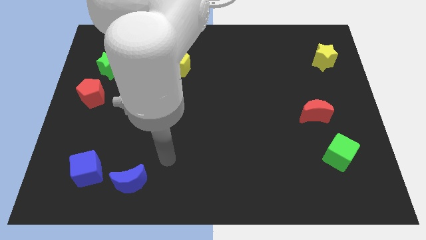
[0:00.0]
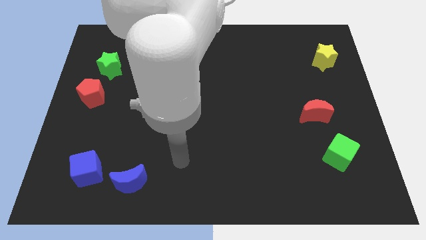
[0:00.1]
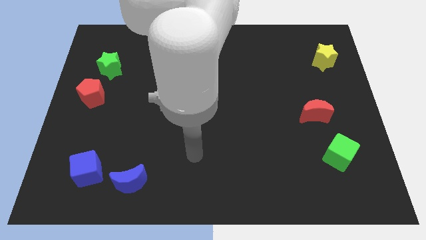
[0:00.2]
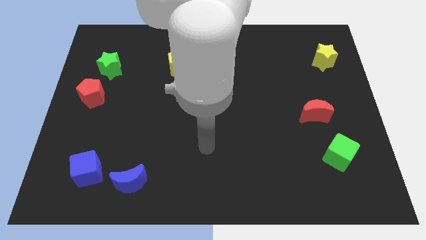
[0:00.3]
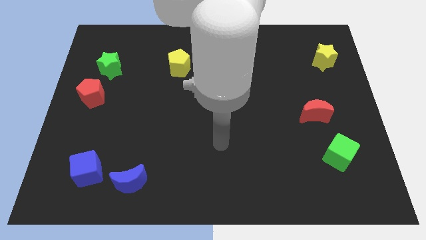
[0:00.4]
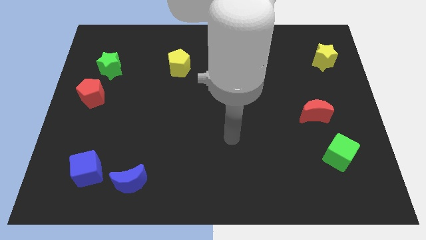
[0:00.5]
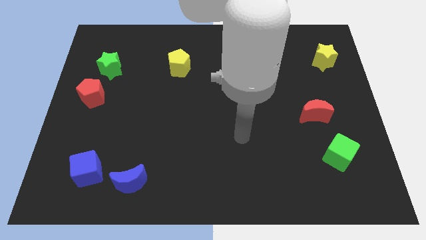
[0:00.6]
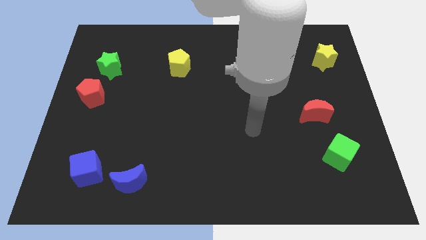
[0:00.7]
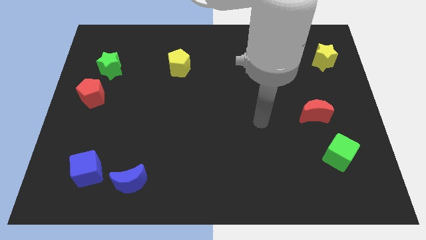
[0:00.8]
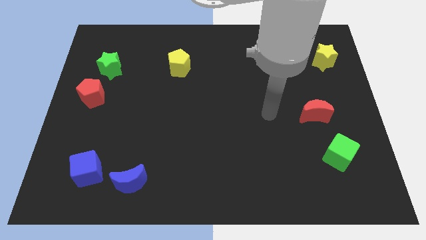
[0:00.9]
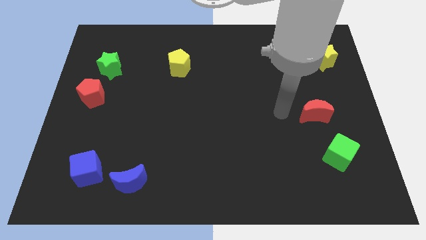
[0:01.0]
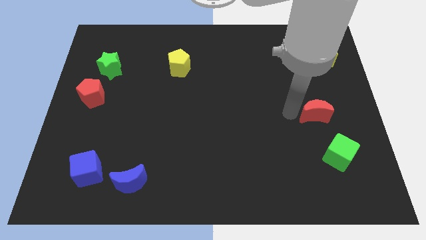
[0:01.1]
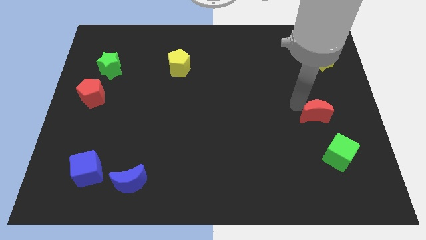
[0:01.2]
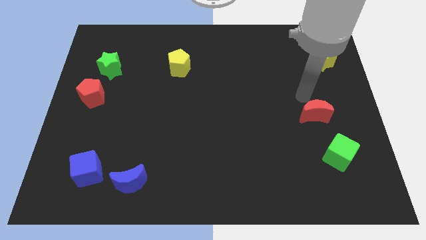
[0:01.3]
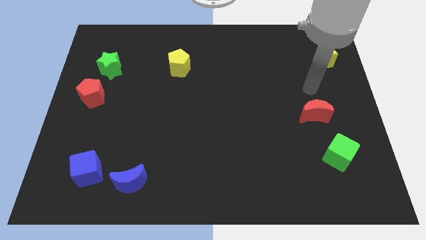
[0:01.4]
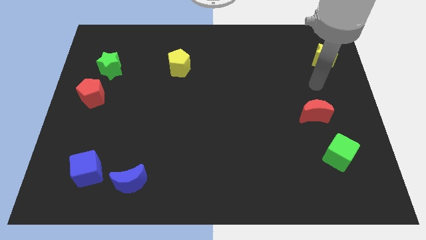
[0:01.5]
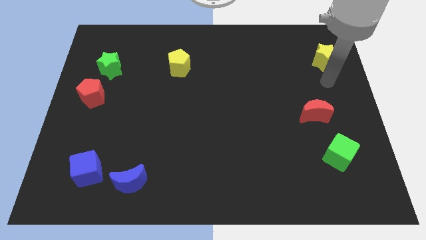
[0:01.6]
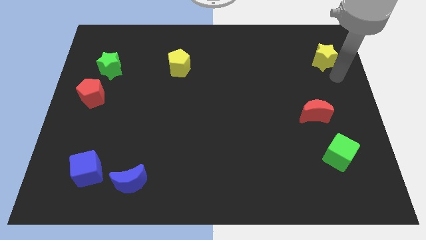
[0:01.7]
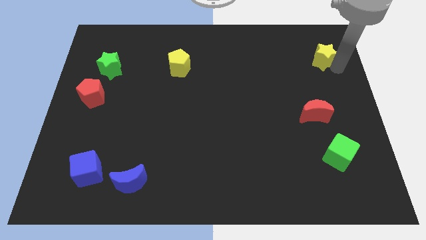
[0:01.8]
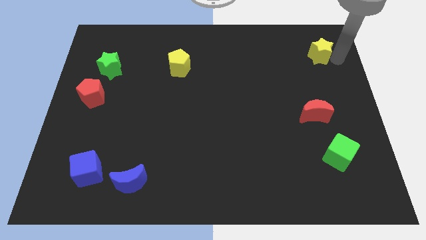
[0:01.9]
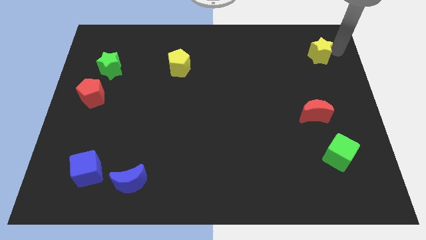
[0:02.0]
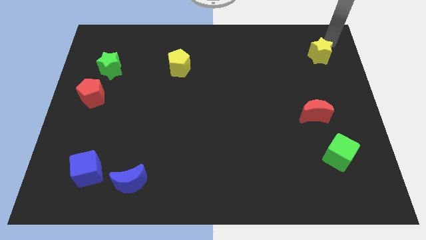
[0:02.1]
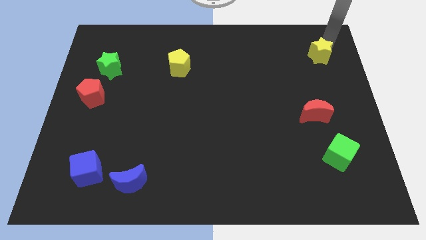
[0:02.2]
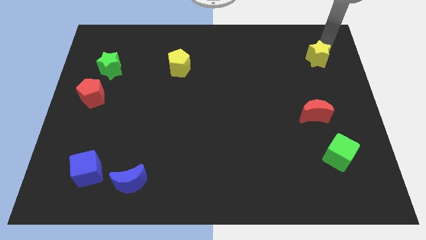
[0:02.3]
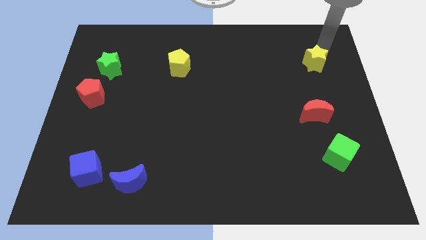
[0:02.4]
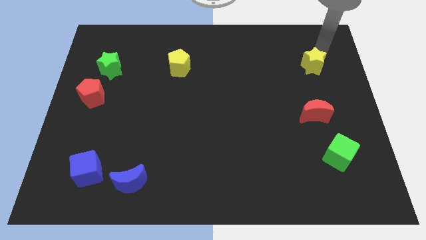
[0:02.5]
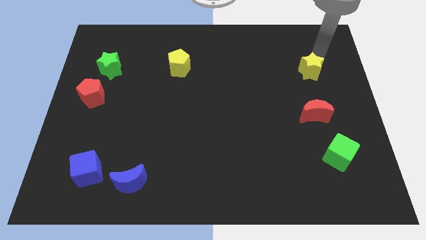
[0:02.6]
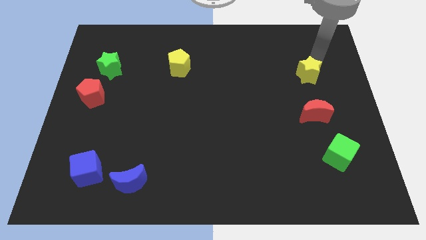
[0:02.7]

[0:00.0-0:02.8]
move the yellow star downwards and then left a little bit

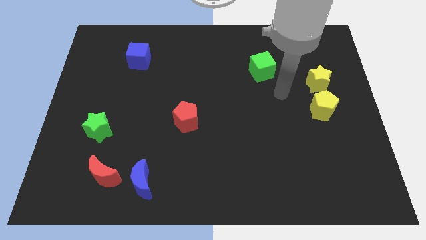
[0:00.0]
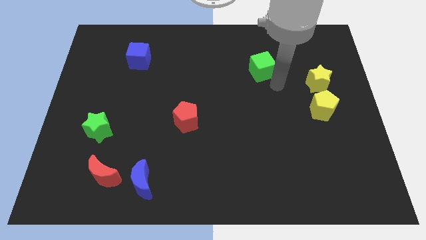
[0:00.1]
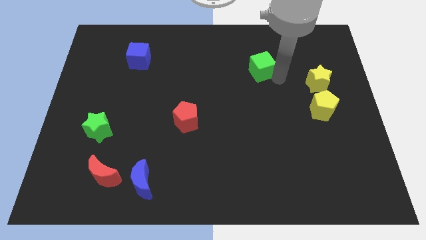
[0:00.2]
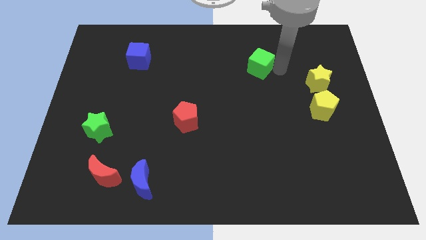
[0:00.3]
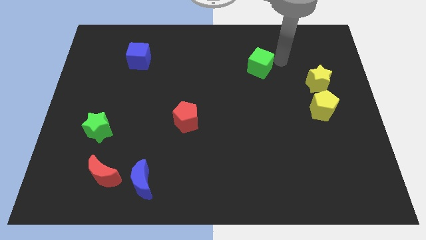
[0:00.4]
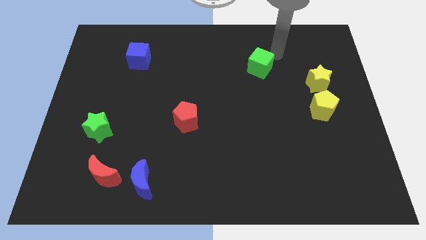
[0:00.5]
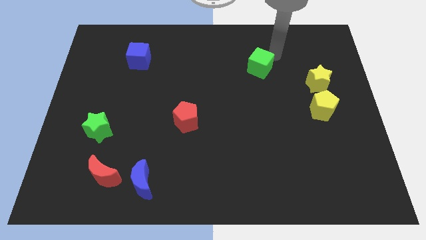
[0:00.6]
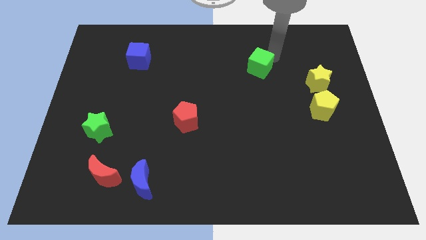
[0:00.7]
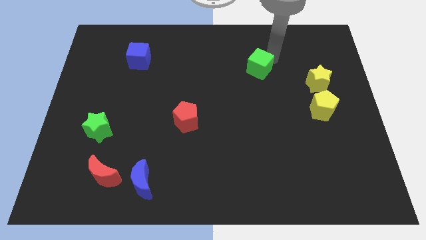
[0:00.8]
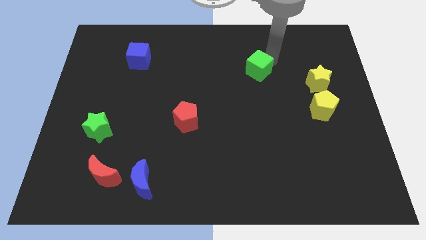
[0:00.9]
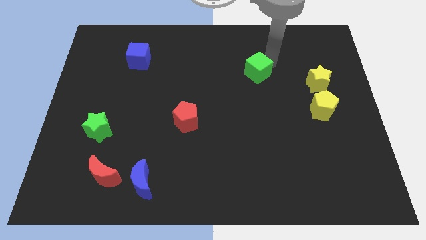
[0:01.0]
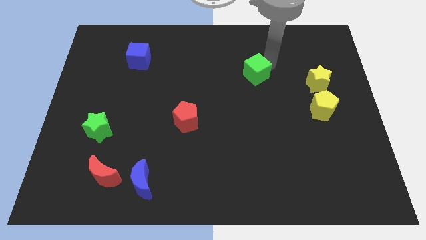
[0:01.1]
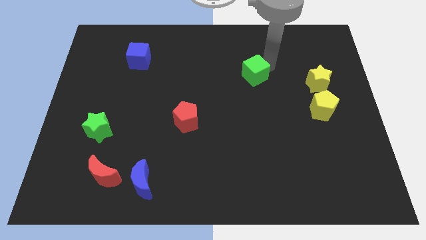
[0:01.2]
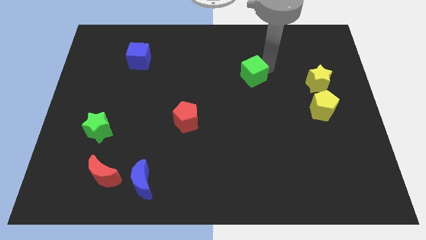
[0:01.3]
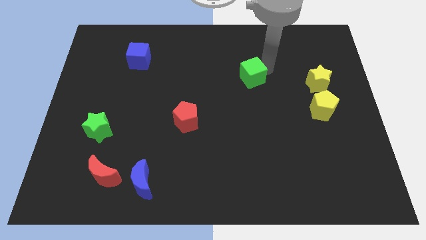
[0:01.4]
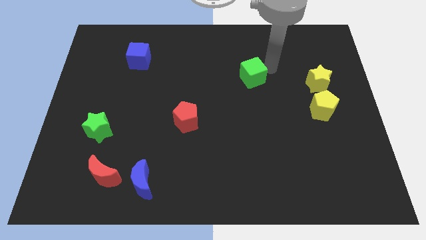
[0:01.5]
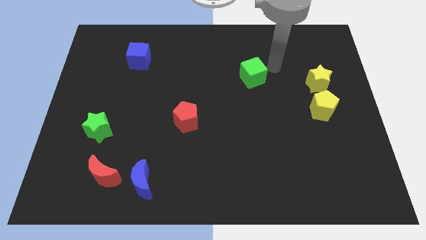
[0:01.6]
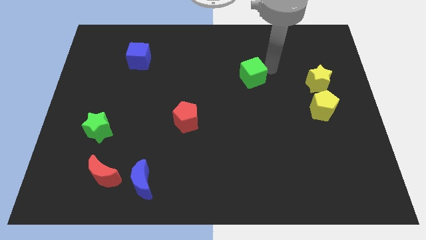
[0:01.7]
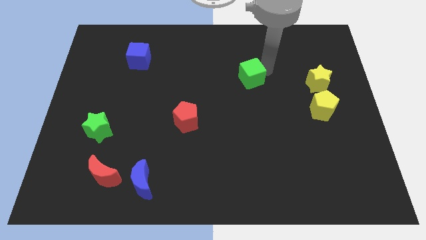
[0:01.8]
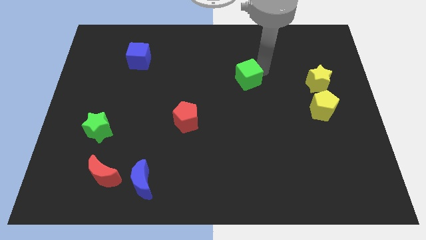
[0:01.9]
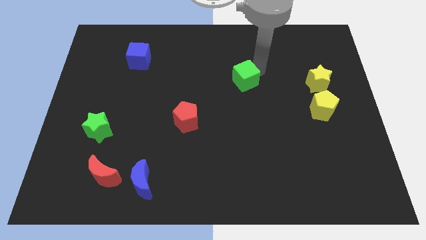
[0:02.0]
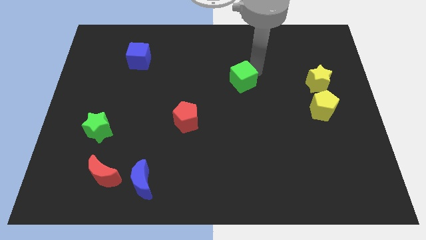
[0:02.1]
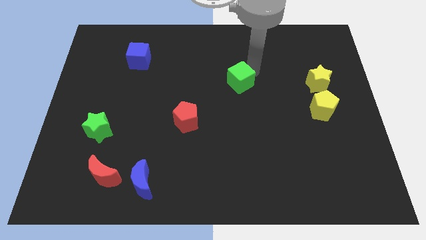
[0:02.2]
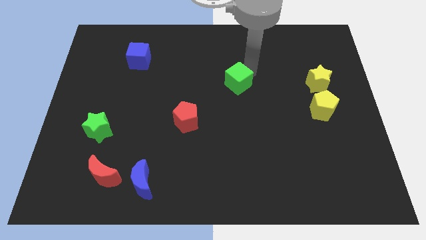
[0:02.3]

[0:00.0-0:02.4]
push the green cube downwards and left a little

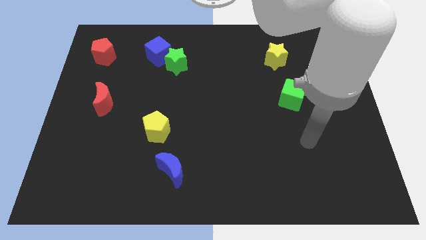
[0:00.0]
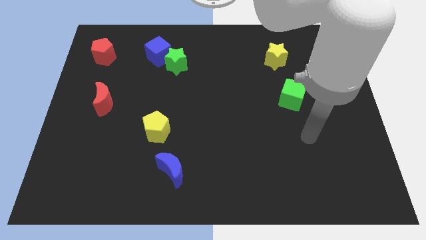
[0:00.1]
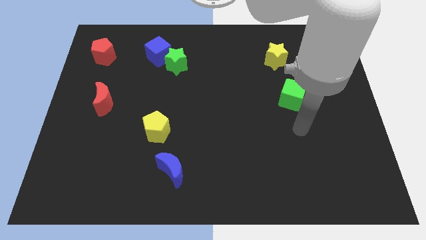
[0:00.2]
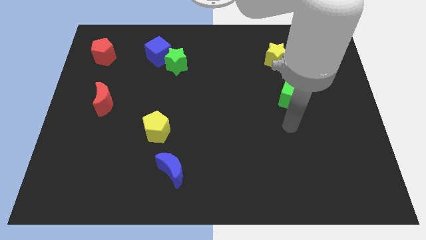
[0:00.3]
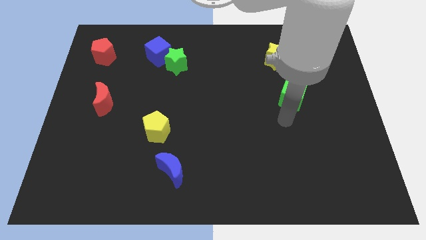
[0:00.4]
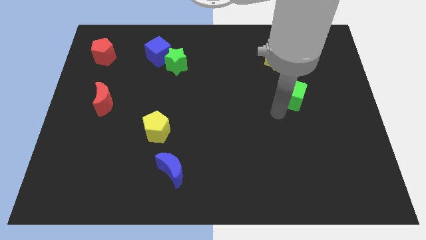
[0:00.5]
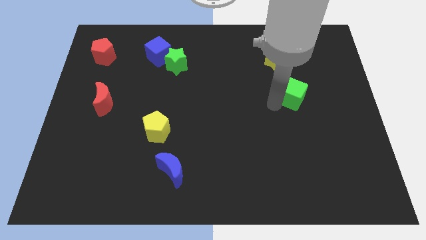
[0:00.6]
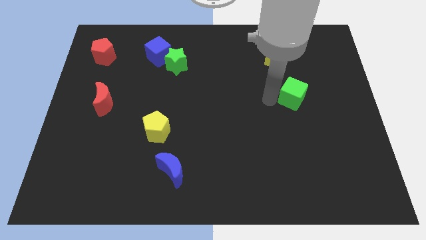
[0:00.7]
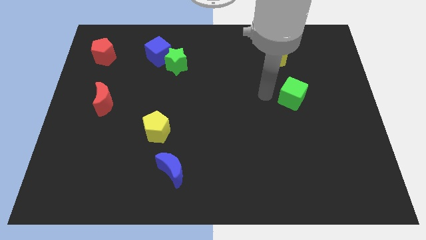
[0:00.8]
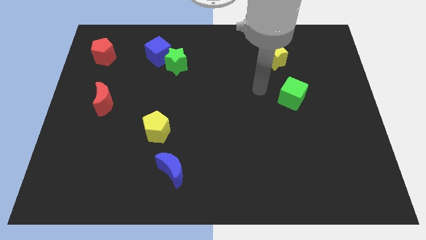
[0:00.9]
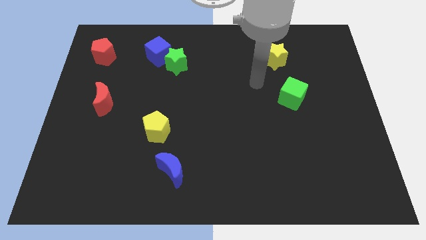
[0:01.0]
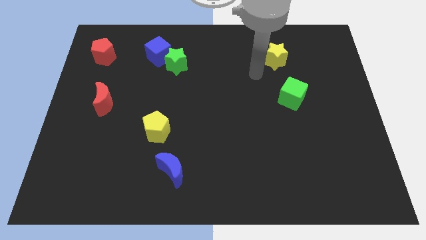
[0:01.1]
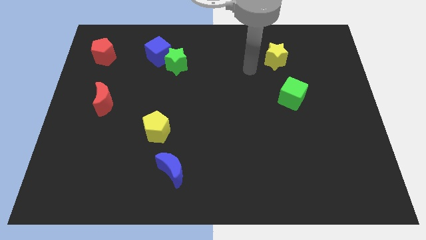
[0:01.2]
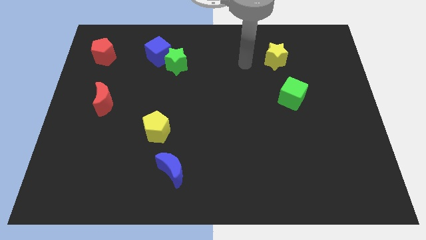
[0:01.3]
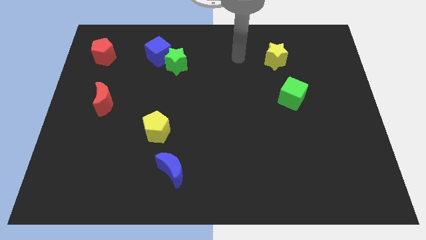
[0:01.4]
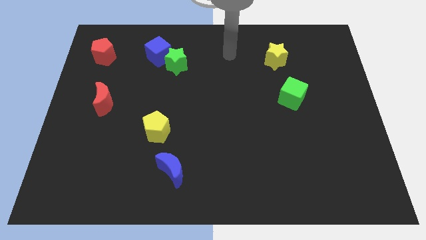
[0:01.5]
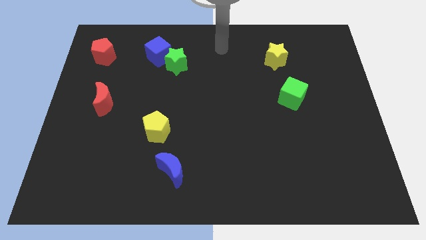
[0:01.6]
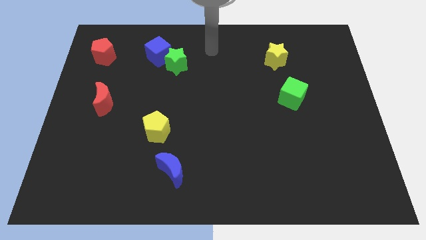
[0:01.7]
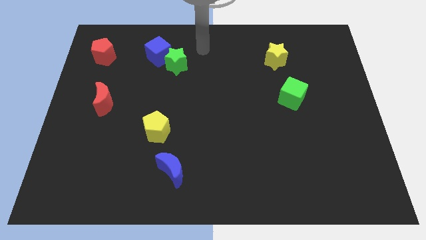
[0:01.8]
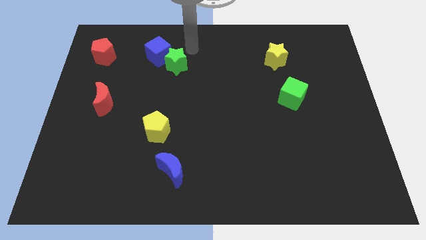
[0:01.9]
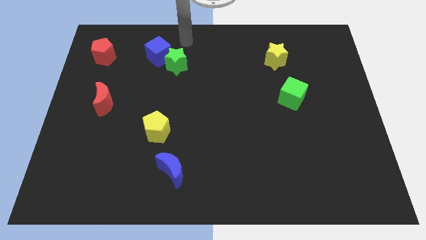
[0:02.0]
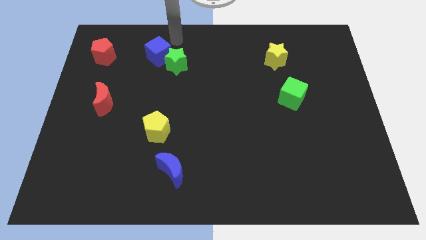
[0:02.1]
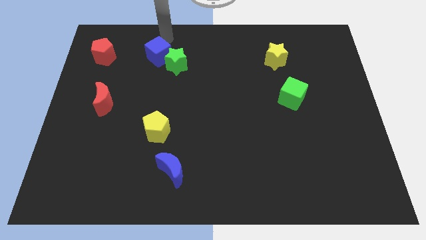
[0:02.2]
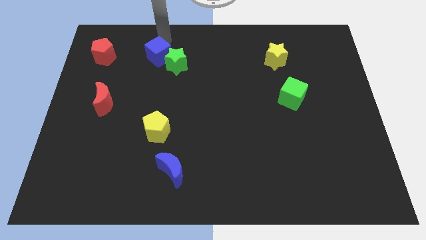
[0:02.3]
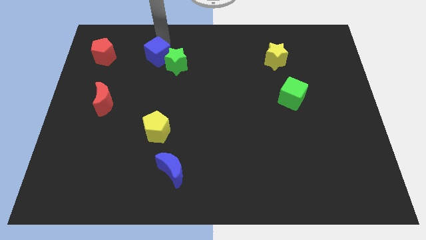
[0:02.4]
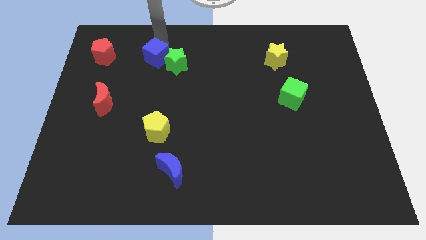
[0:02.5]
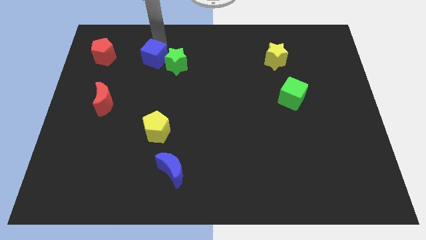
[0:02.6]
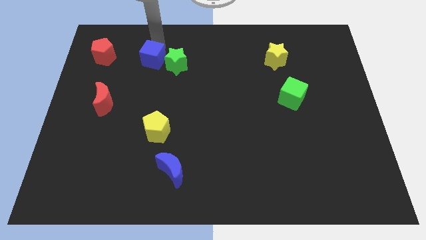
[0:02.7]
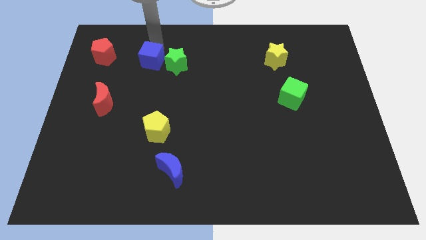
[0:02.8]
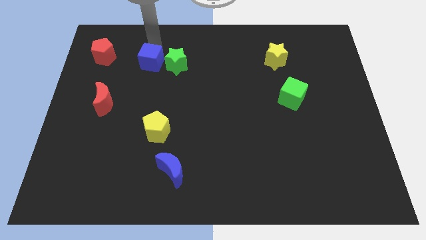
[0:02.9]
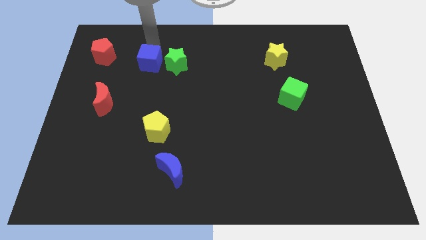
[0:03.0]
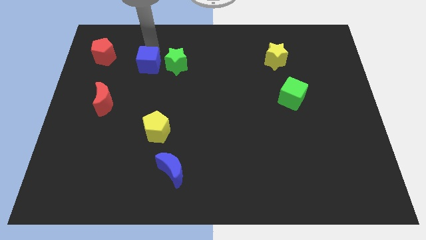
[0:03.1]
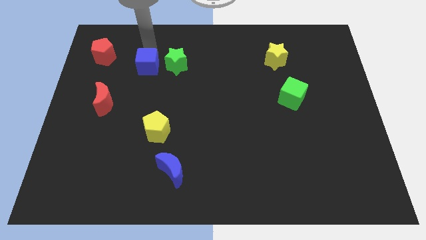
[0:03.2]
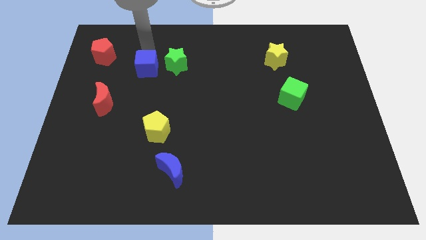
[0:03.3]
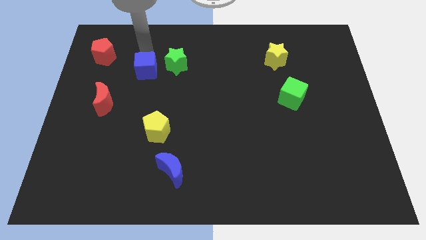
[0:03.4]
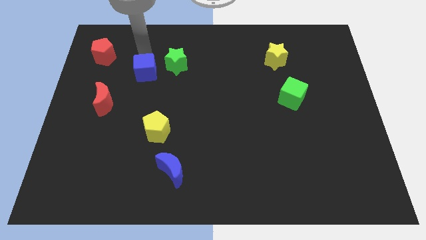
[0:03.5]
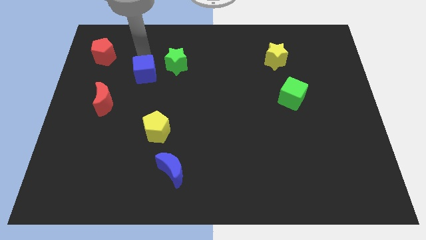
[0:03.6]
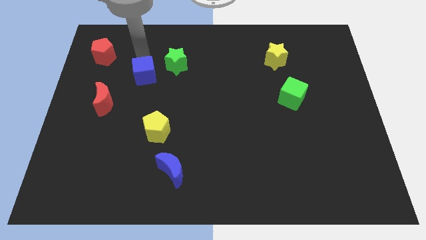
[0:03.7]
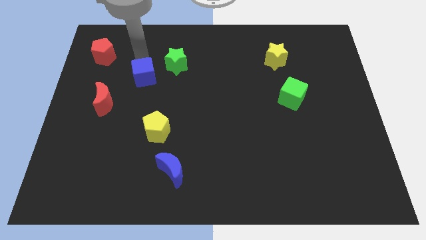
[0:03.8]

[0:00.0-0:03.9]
move the blue cube down somewhat
